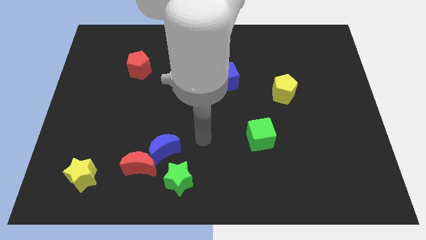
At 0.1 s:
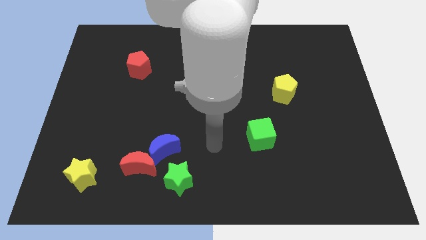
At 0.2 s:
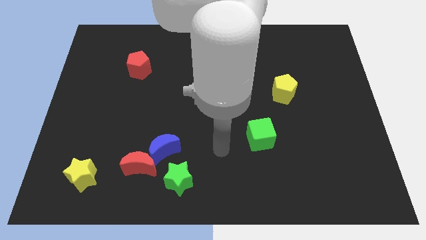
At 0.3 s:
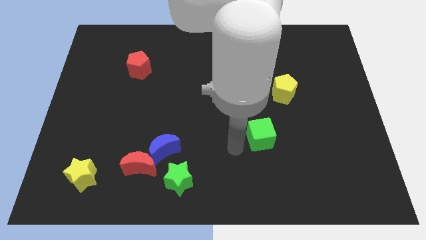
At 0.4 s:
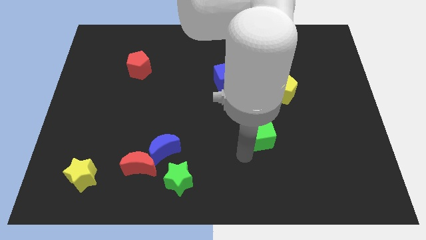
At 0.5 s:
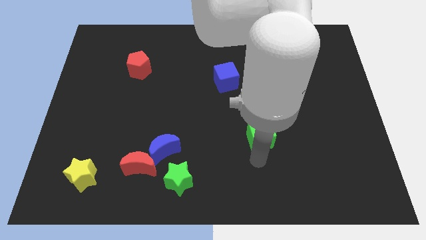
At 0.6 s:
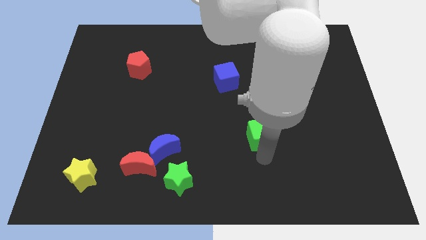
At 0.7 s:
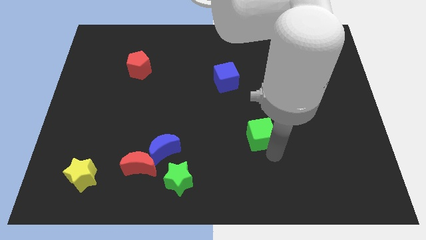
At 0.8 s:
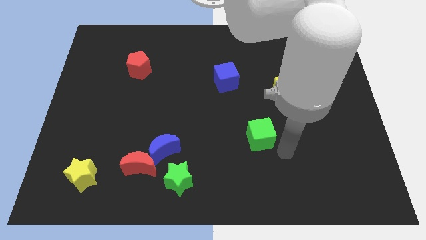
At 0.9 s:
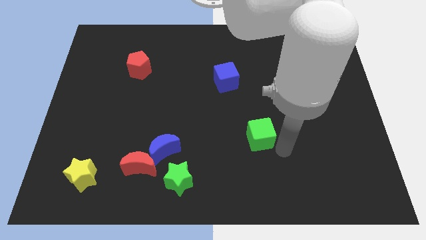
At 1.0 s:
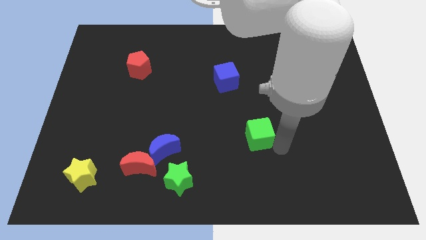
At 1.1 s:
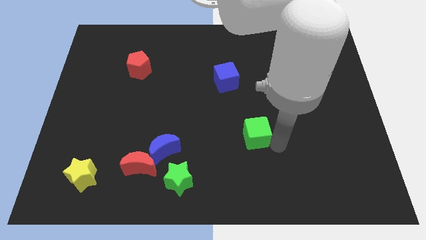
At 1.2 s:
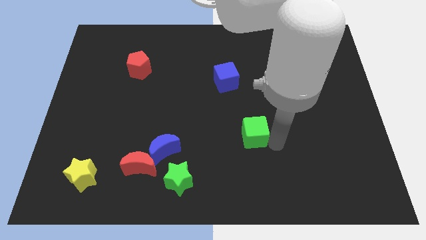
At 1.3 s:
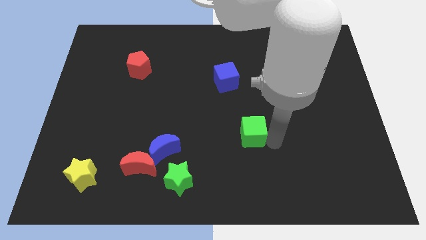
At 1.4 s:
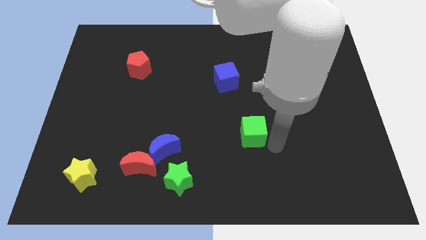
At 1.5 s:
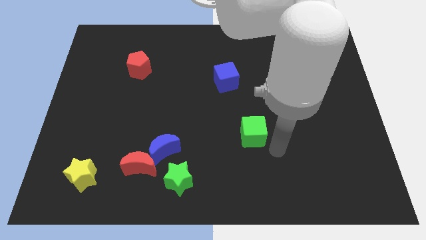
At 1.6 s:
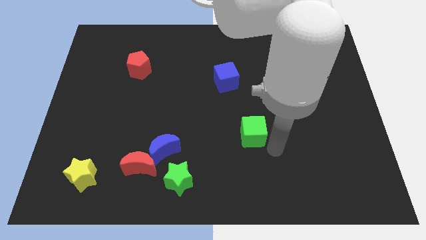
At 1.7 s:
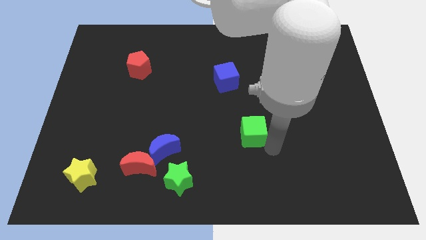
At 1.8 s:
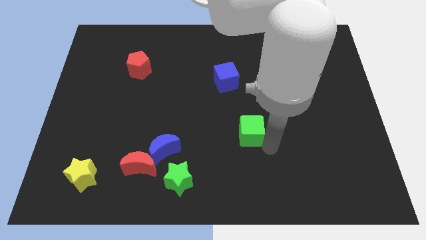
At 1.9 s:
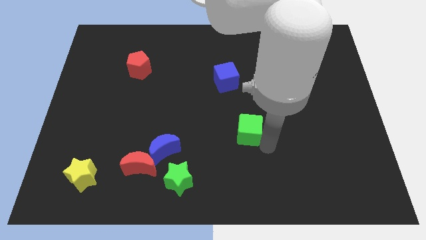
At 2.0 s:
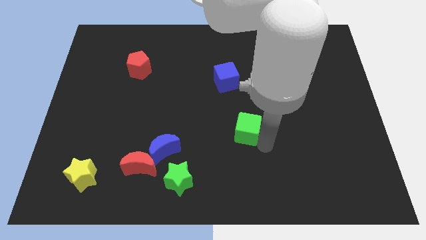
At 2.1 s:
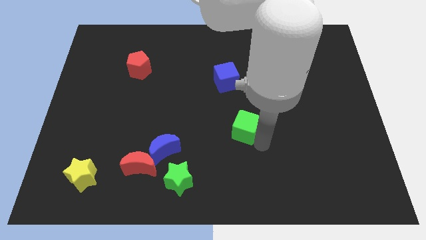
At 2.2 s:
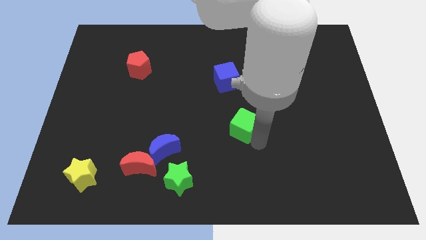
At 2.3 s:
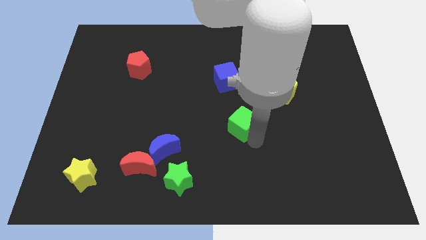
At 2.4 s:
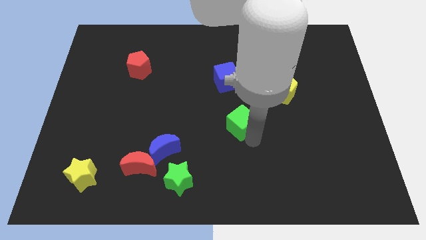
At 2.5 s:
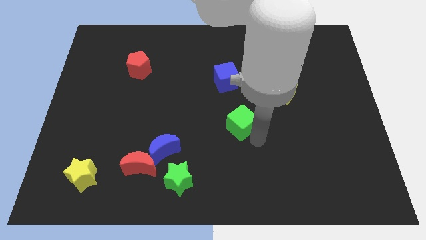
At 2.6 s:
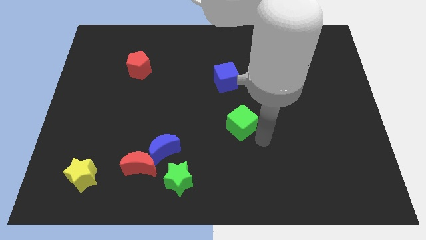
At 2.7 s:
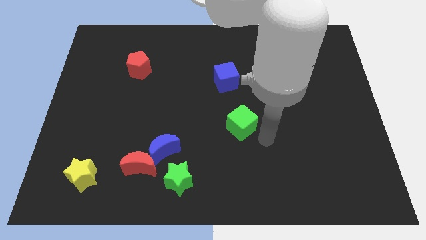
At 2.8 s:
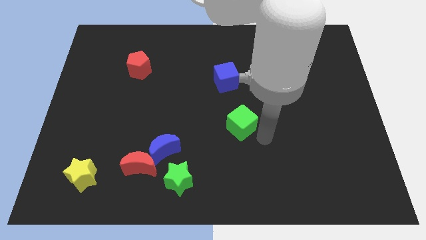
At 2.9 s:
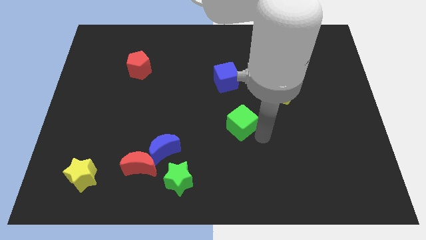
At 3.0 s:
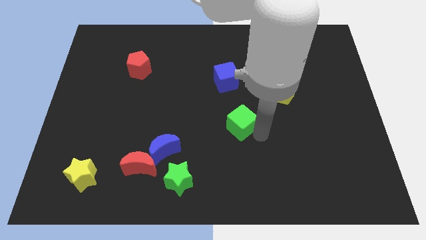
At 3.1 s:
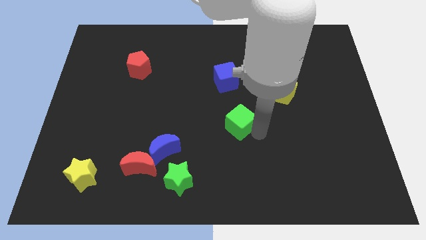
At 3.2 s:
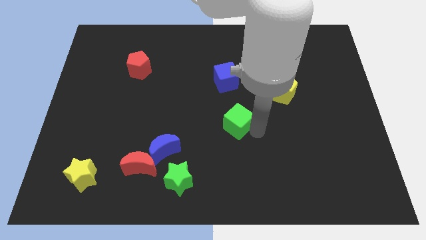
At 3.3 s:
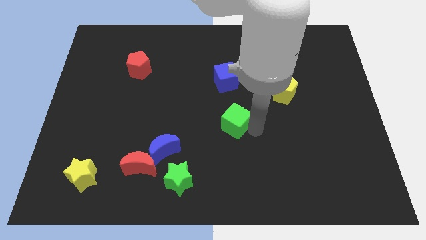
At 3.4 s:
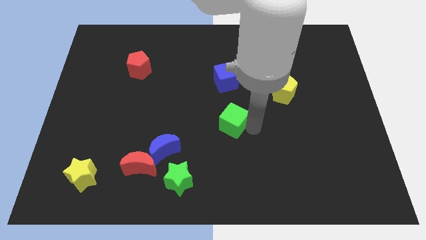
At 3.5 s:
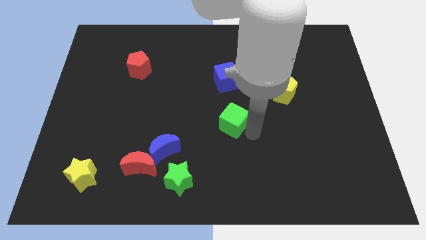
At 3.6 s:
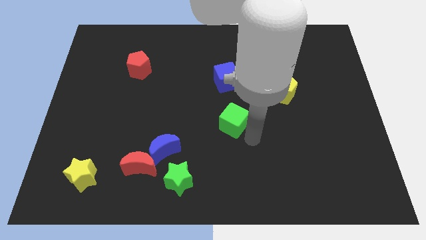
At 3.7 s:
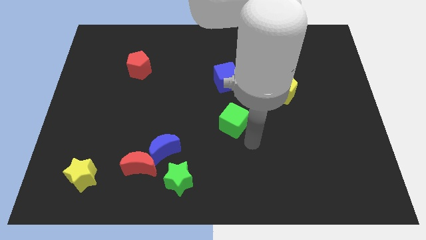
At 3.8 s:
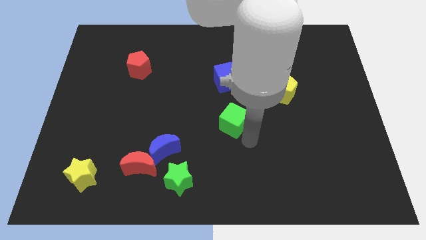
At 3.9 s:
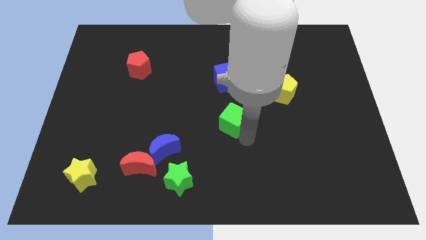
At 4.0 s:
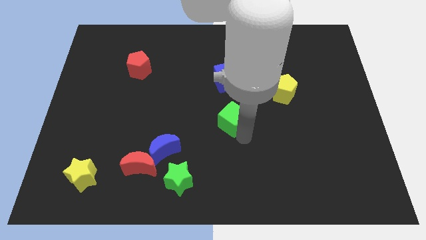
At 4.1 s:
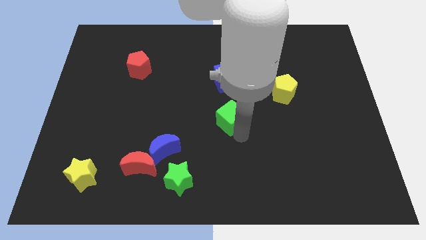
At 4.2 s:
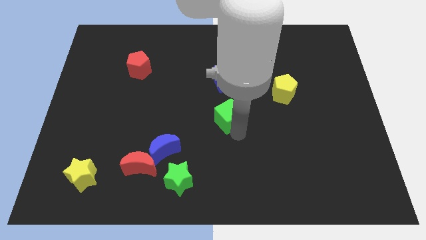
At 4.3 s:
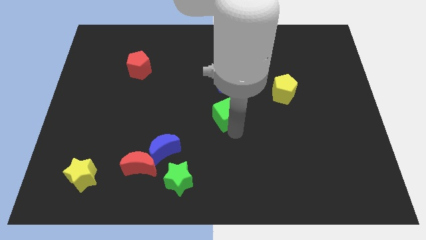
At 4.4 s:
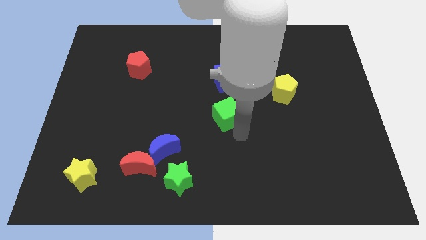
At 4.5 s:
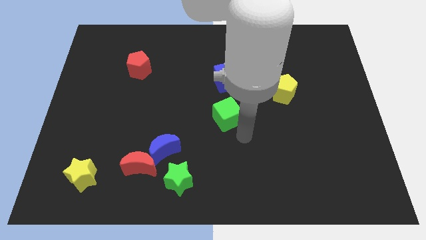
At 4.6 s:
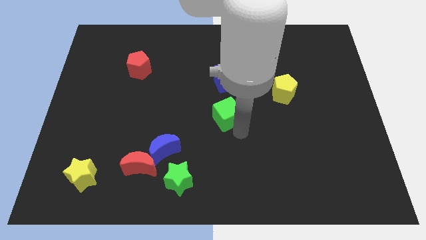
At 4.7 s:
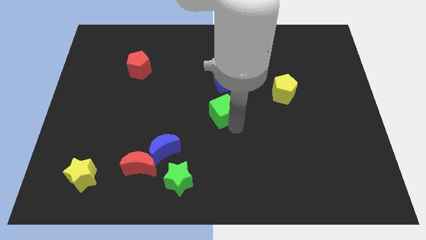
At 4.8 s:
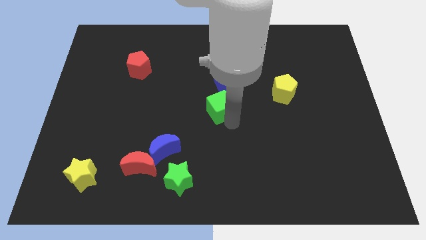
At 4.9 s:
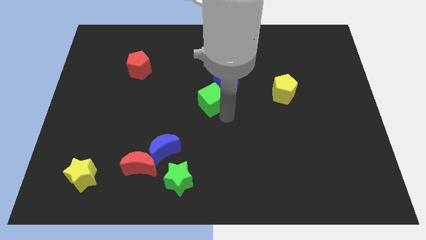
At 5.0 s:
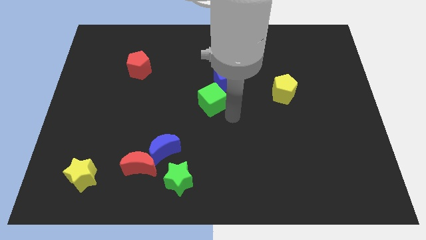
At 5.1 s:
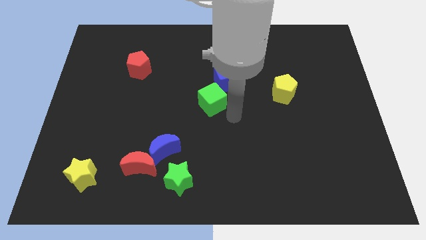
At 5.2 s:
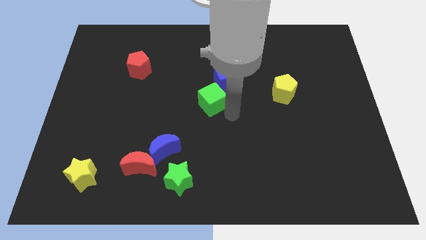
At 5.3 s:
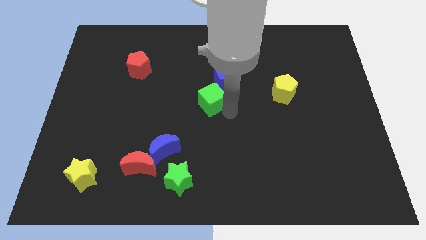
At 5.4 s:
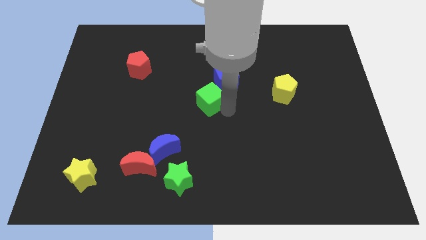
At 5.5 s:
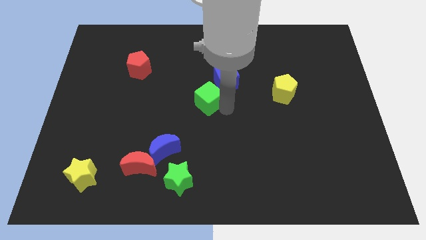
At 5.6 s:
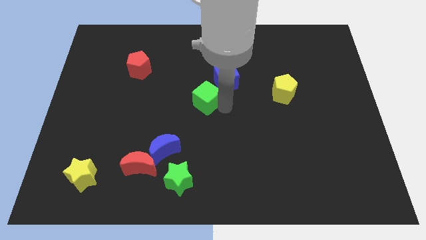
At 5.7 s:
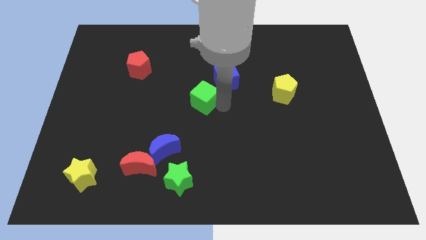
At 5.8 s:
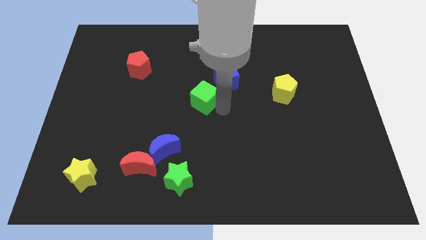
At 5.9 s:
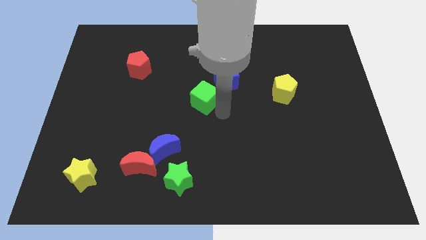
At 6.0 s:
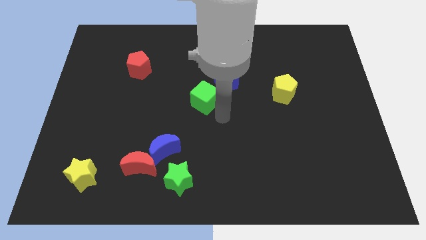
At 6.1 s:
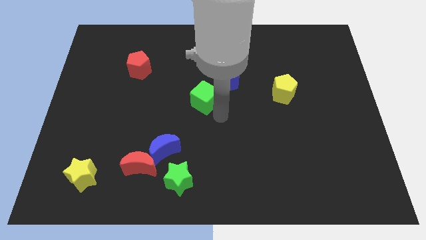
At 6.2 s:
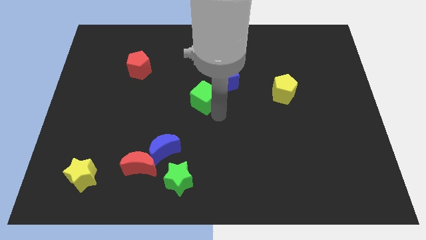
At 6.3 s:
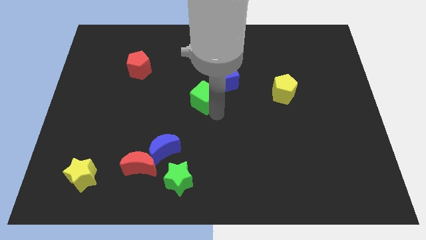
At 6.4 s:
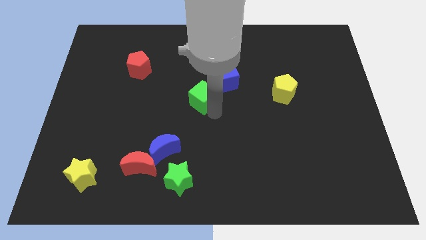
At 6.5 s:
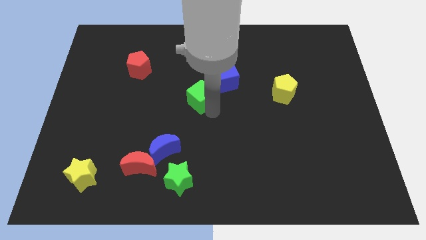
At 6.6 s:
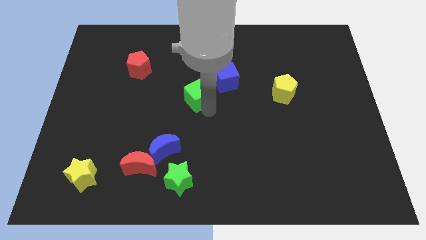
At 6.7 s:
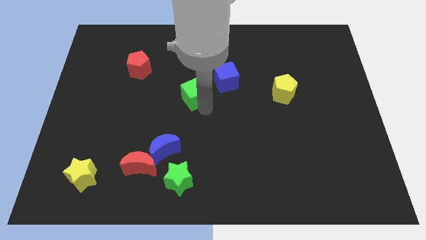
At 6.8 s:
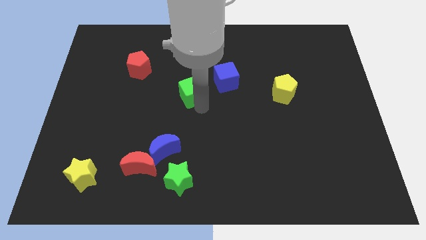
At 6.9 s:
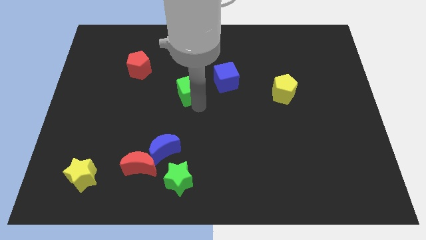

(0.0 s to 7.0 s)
slide the green cube diagonally up and to the left

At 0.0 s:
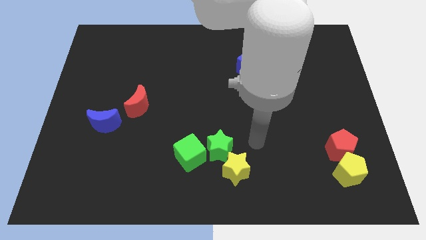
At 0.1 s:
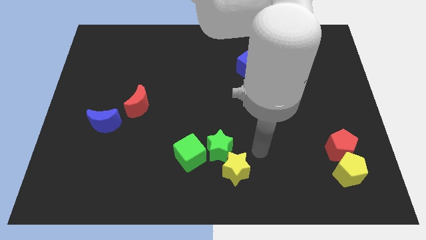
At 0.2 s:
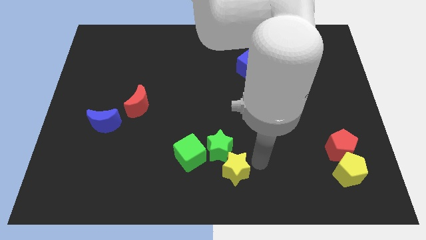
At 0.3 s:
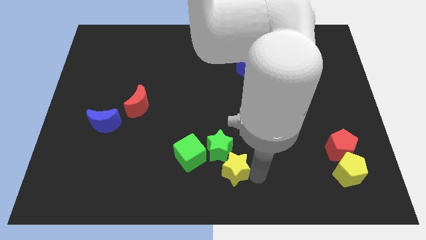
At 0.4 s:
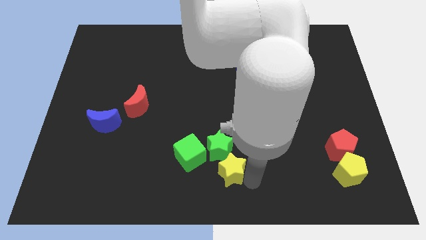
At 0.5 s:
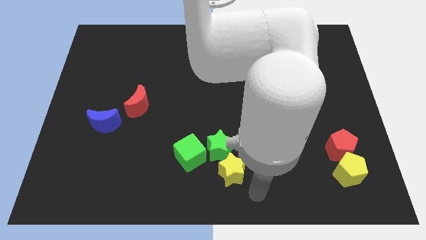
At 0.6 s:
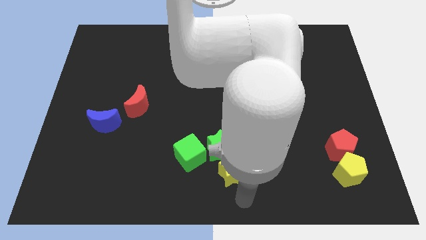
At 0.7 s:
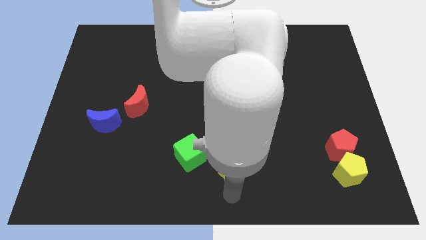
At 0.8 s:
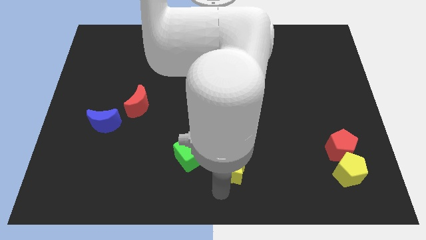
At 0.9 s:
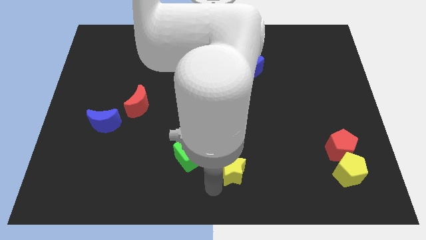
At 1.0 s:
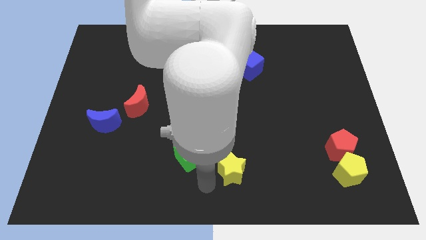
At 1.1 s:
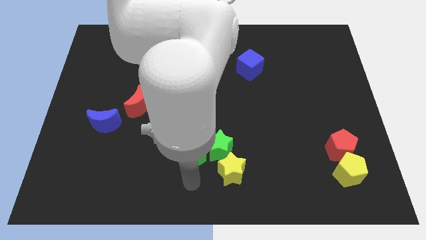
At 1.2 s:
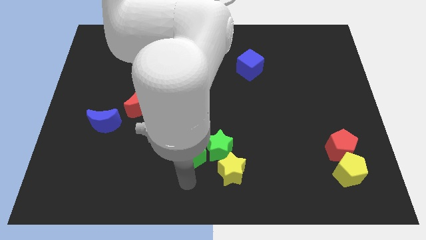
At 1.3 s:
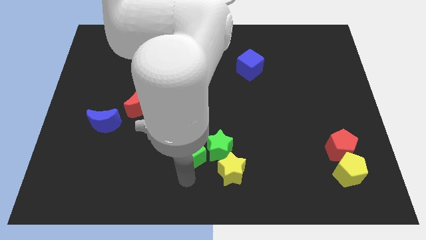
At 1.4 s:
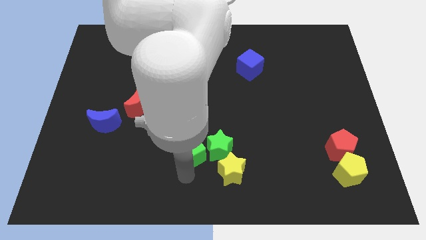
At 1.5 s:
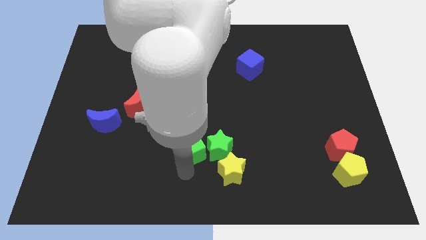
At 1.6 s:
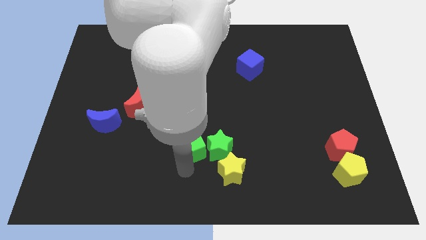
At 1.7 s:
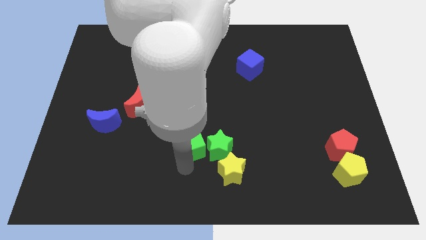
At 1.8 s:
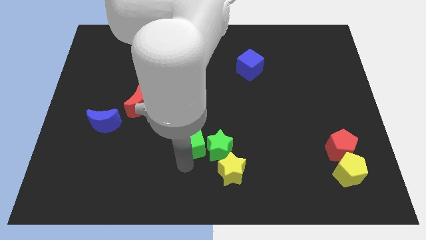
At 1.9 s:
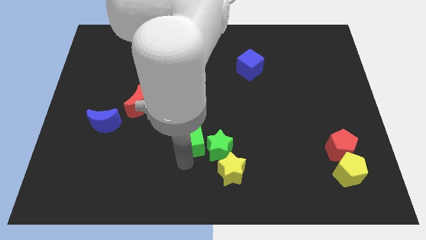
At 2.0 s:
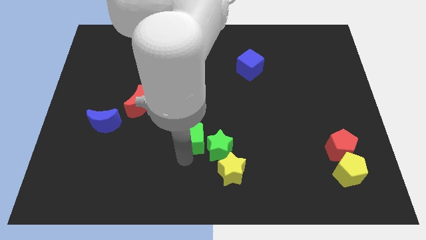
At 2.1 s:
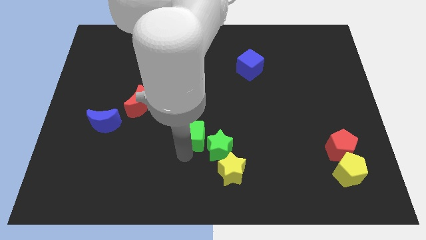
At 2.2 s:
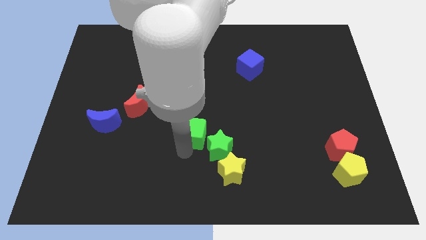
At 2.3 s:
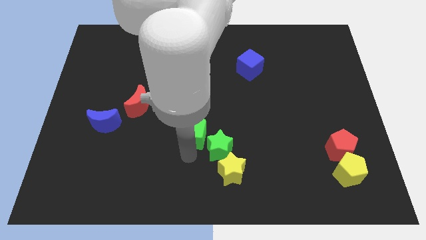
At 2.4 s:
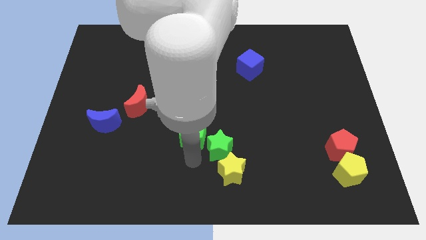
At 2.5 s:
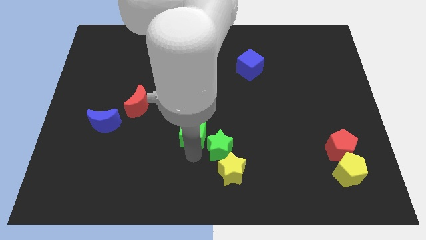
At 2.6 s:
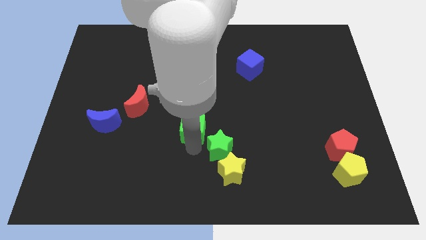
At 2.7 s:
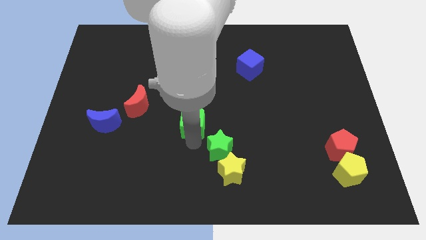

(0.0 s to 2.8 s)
move the green cube up a little
